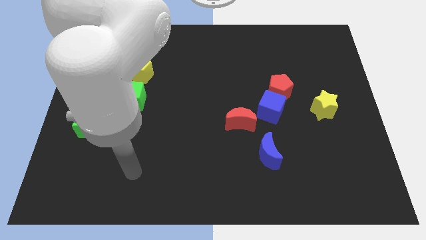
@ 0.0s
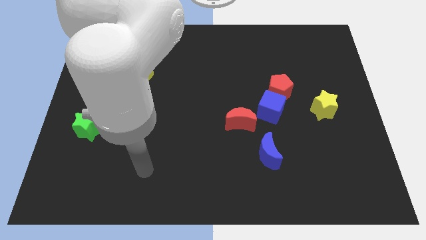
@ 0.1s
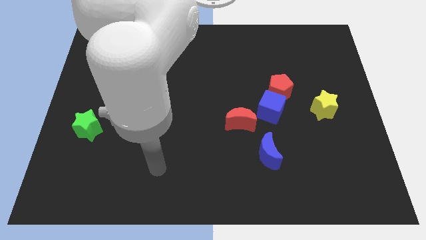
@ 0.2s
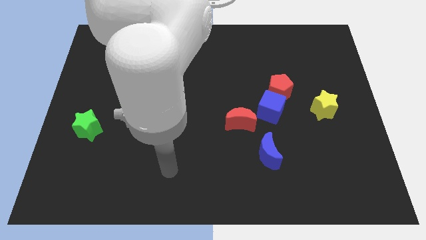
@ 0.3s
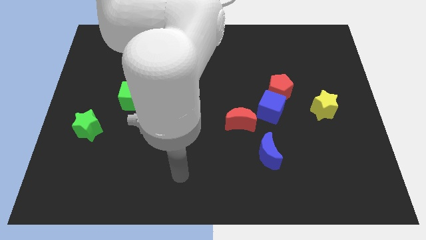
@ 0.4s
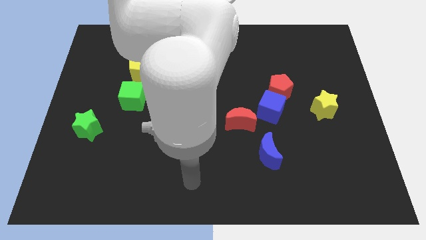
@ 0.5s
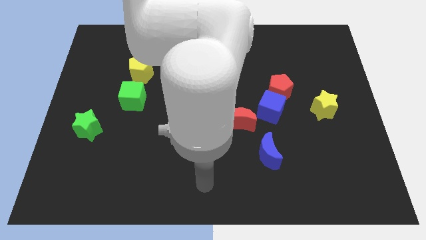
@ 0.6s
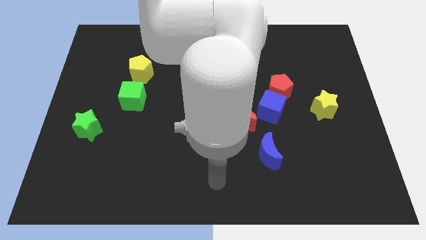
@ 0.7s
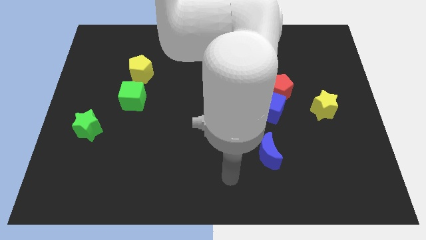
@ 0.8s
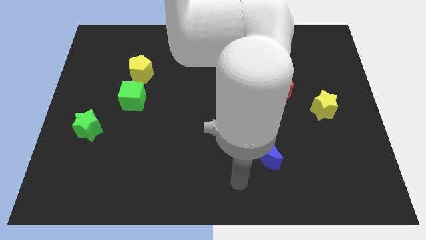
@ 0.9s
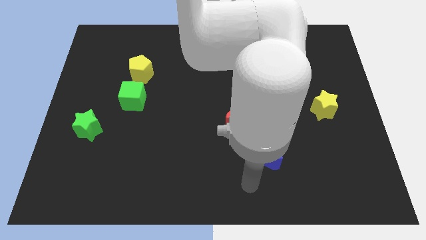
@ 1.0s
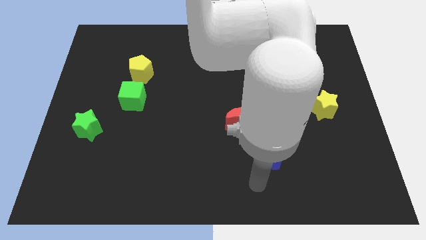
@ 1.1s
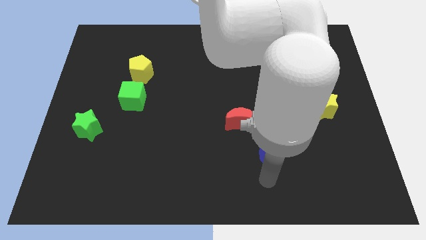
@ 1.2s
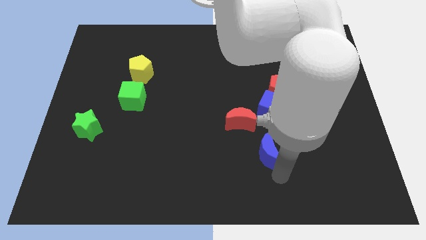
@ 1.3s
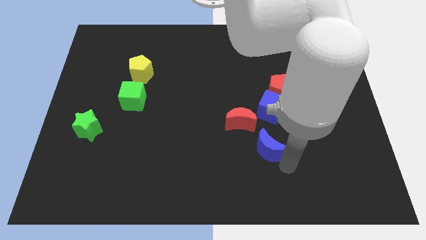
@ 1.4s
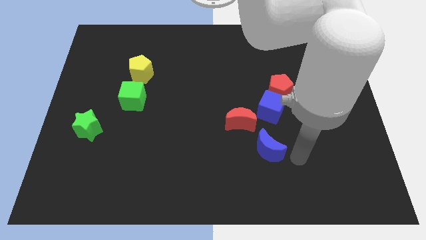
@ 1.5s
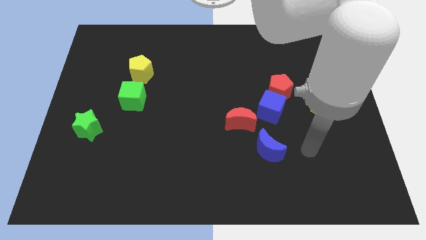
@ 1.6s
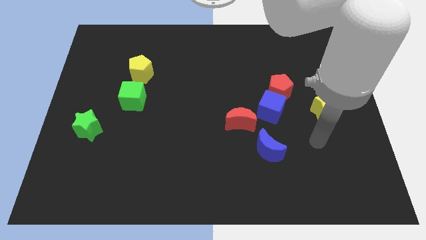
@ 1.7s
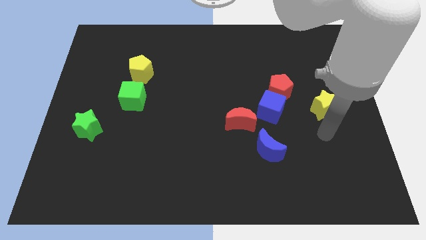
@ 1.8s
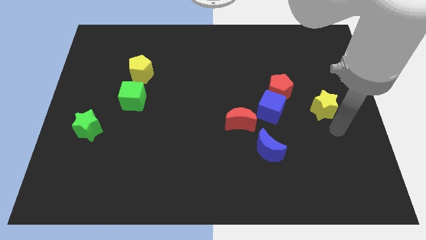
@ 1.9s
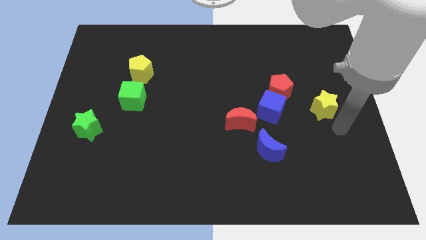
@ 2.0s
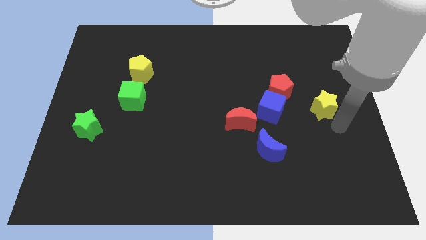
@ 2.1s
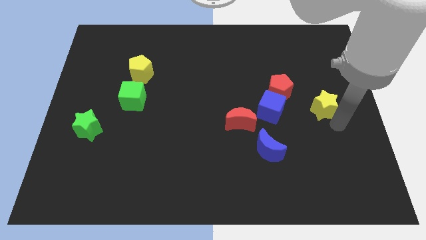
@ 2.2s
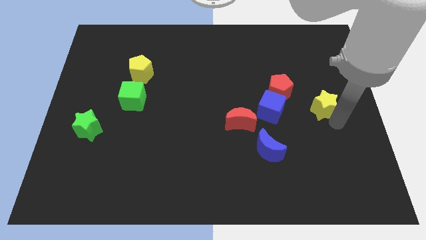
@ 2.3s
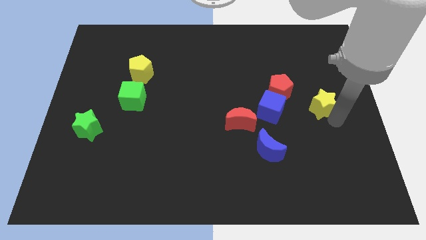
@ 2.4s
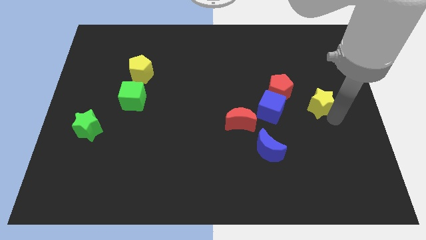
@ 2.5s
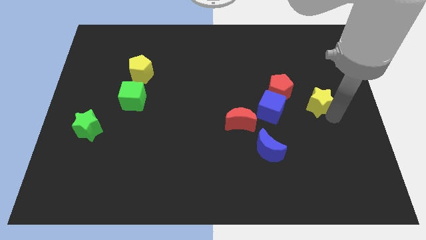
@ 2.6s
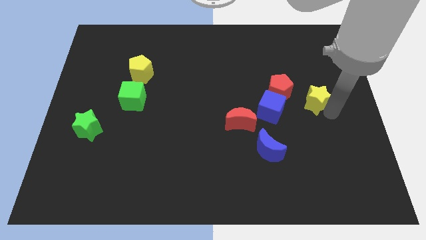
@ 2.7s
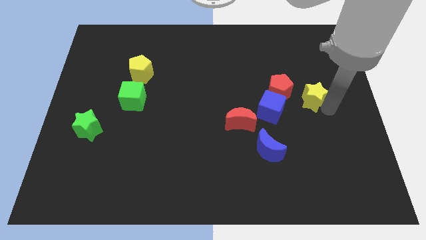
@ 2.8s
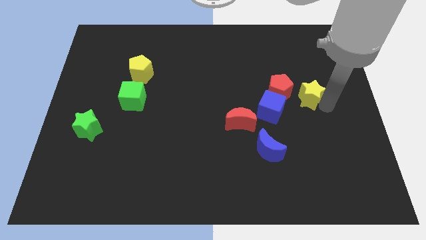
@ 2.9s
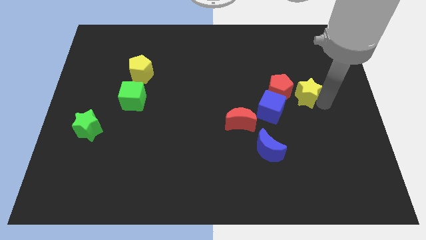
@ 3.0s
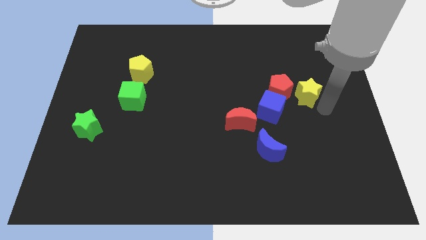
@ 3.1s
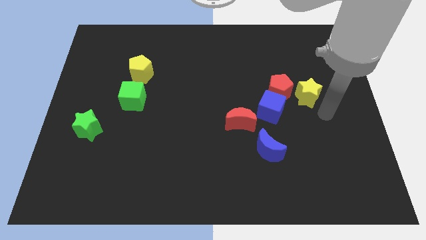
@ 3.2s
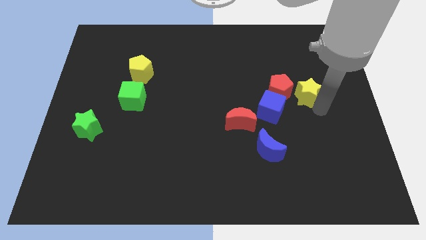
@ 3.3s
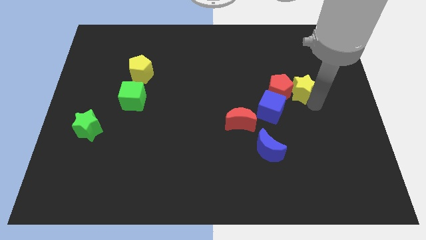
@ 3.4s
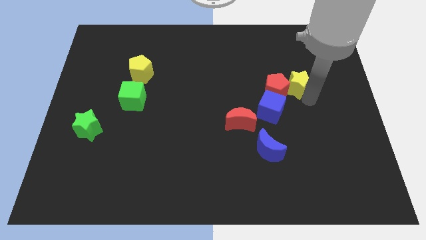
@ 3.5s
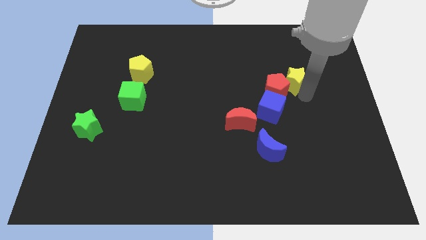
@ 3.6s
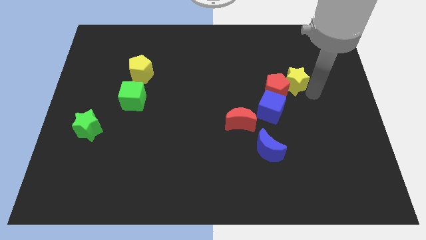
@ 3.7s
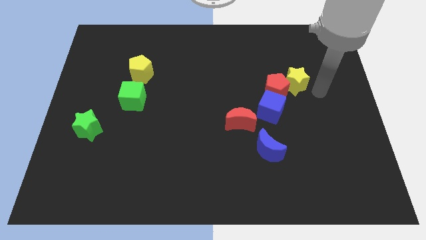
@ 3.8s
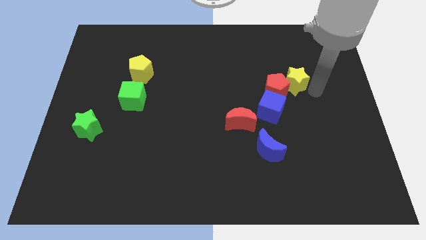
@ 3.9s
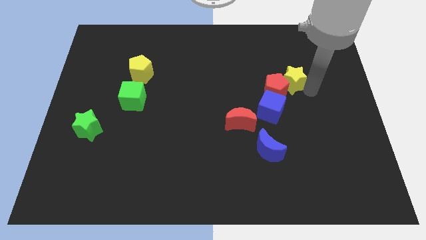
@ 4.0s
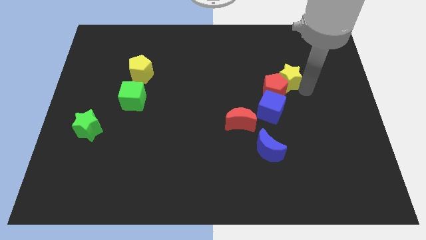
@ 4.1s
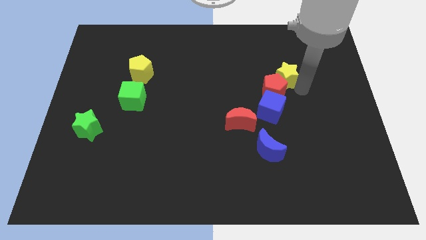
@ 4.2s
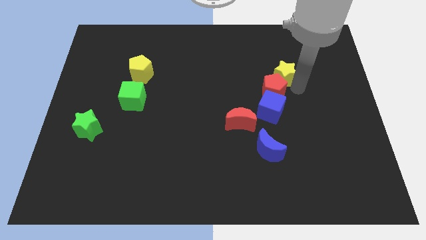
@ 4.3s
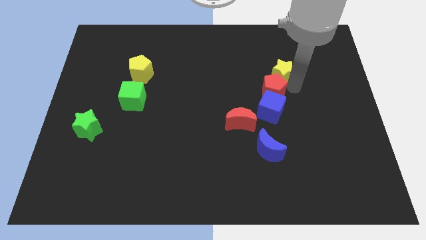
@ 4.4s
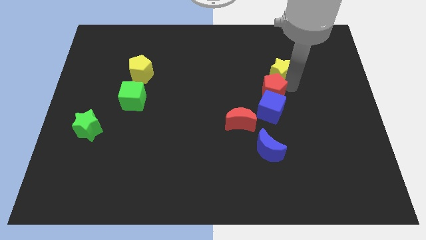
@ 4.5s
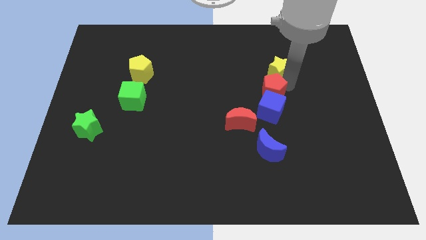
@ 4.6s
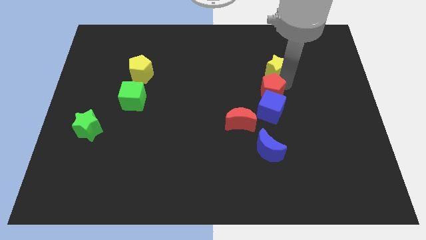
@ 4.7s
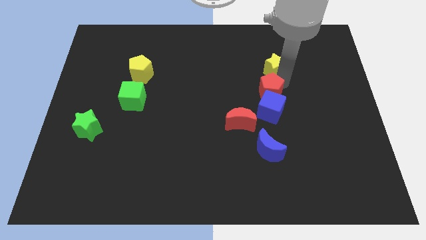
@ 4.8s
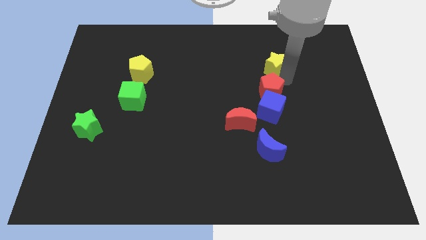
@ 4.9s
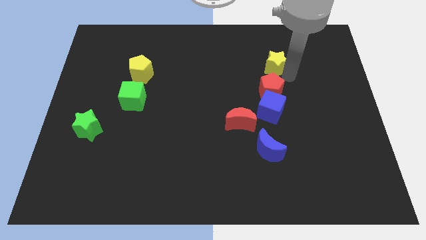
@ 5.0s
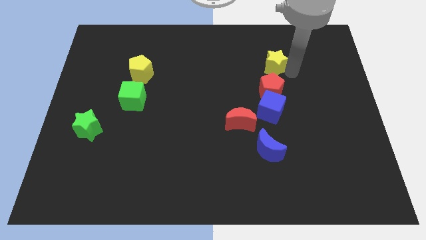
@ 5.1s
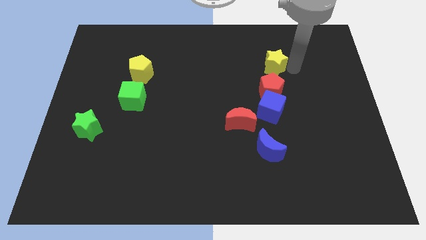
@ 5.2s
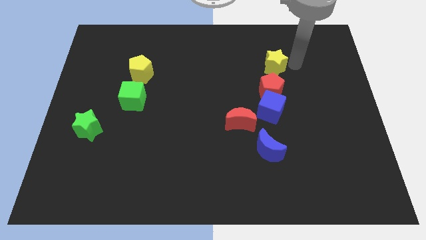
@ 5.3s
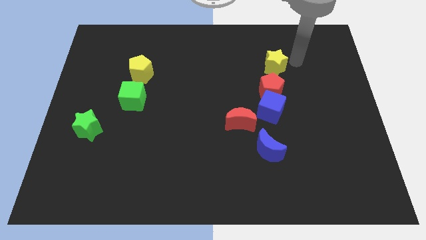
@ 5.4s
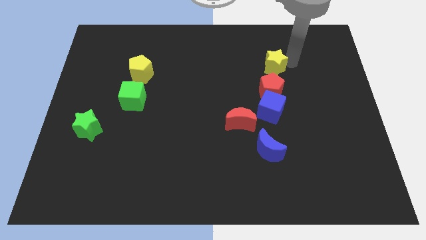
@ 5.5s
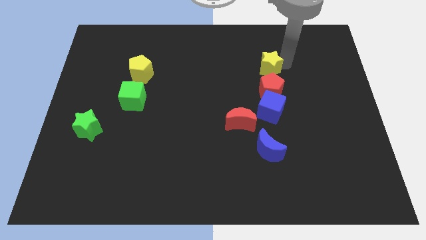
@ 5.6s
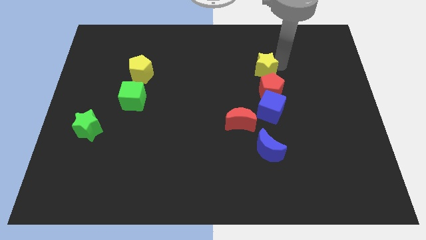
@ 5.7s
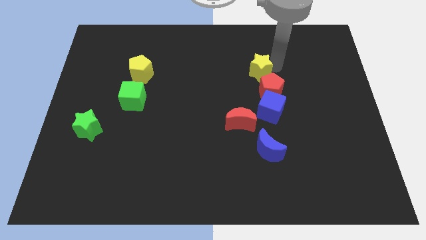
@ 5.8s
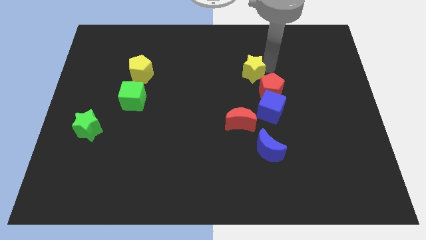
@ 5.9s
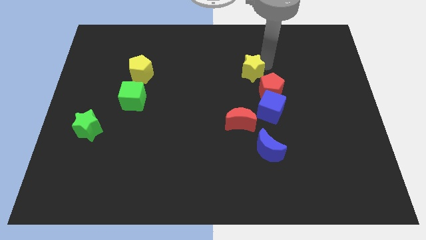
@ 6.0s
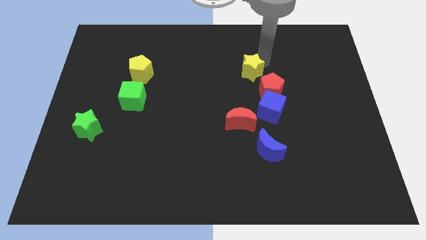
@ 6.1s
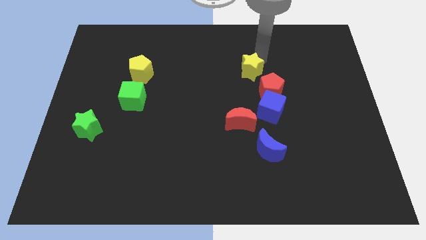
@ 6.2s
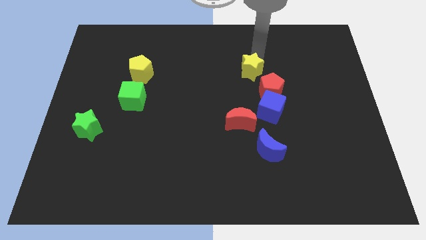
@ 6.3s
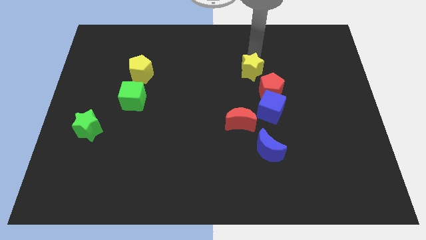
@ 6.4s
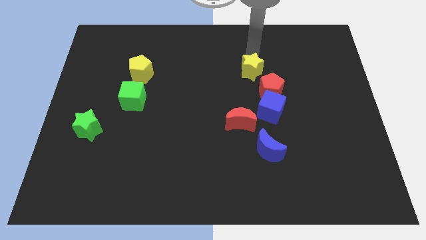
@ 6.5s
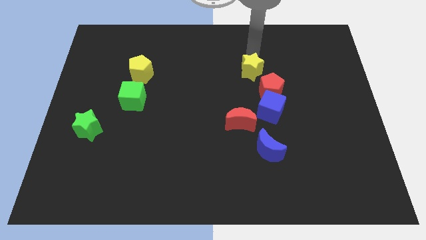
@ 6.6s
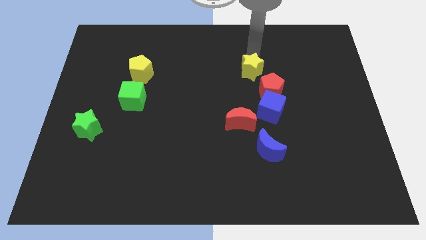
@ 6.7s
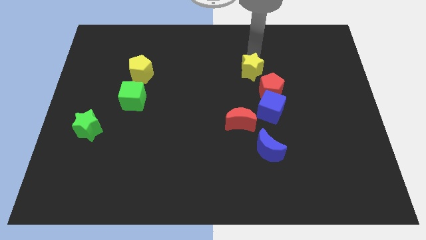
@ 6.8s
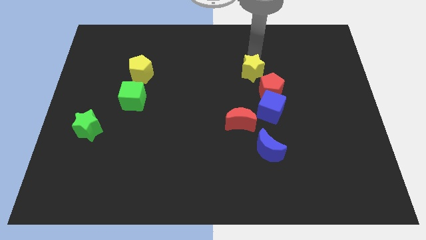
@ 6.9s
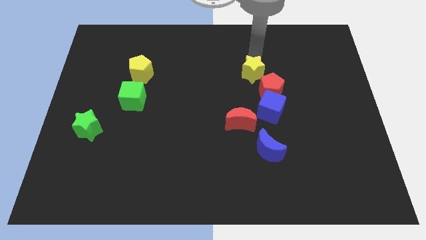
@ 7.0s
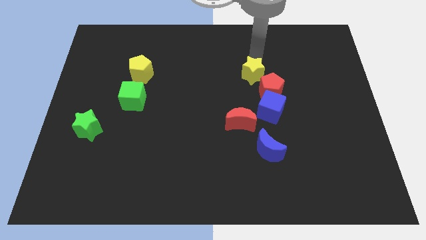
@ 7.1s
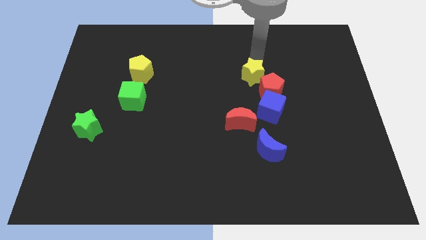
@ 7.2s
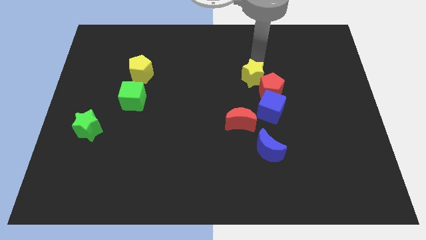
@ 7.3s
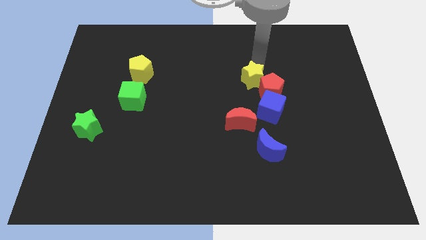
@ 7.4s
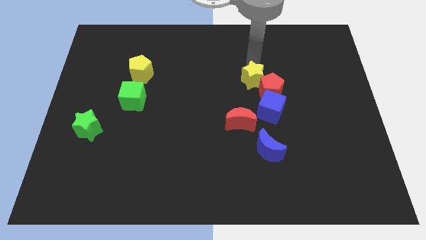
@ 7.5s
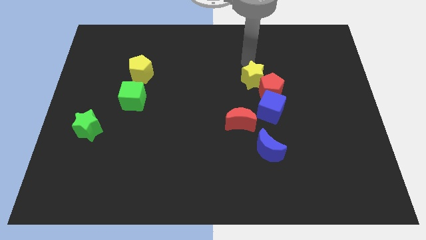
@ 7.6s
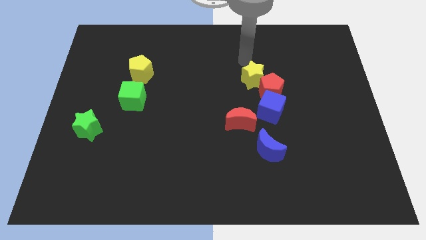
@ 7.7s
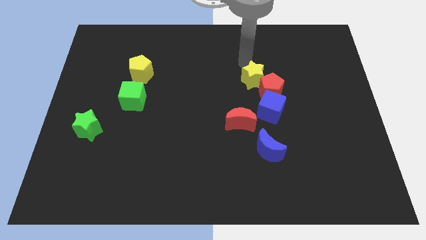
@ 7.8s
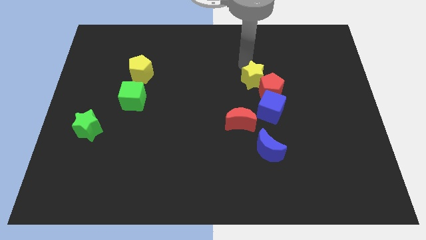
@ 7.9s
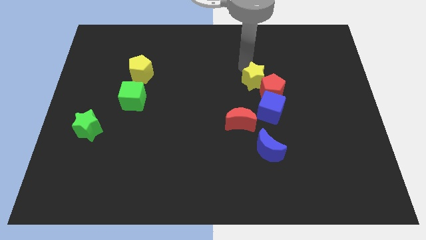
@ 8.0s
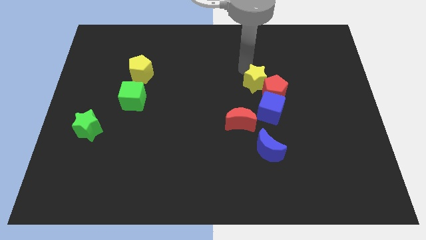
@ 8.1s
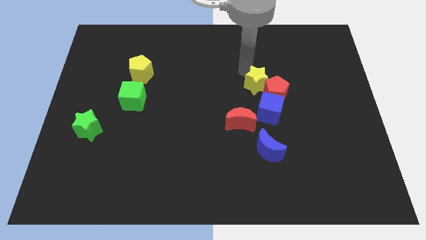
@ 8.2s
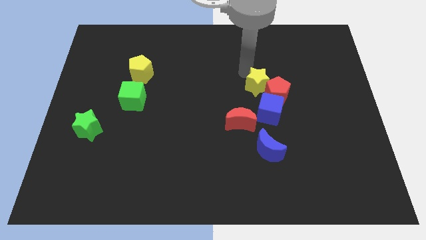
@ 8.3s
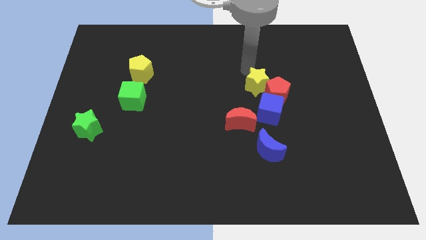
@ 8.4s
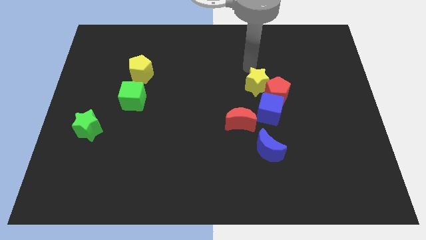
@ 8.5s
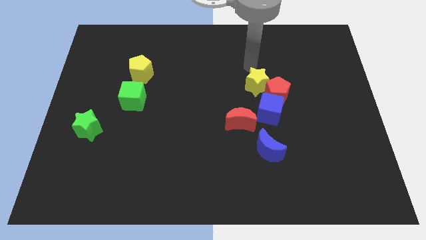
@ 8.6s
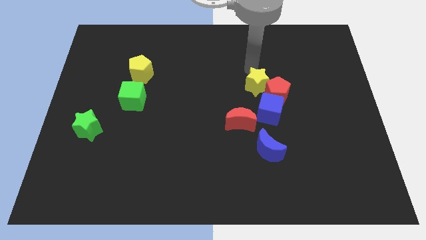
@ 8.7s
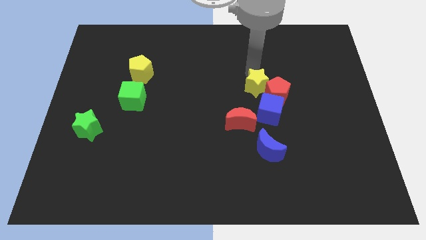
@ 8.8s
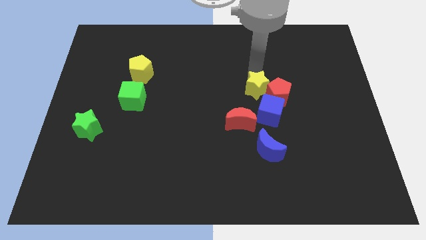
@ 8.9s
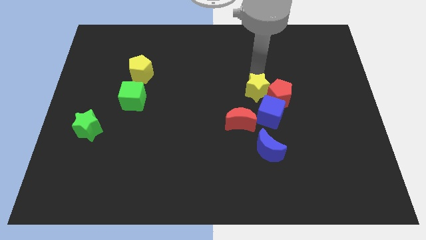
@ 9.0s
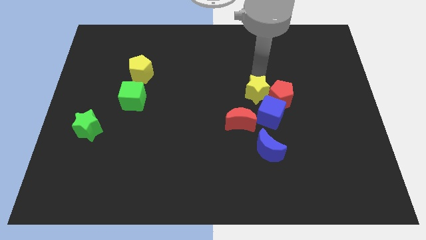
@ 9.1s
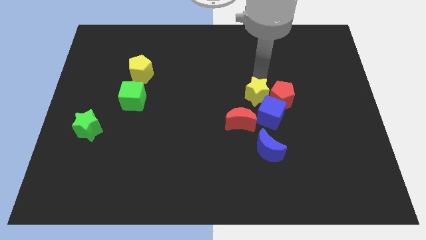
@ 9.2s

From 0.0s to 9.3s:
move the yellow star diagonally down and to the left of the red pentagon
